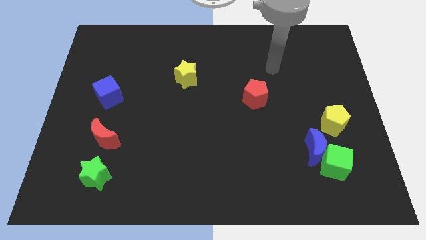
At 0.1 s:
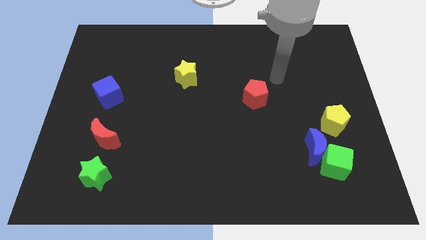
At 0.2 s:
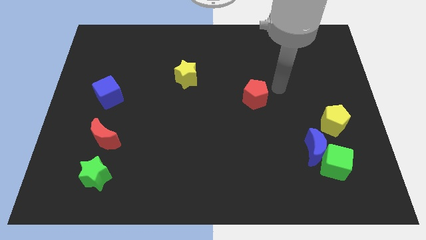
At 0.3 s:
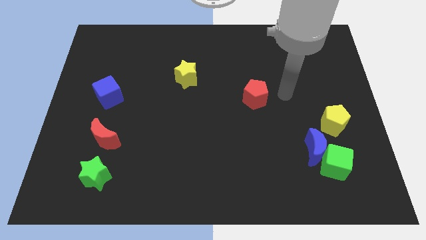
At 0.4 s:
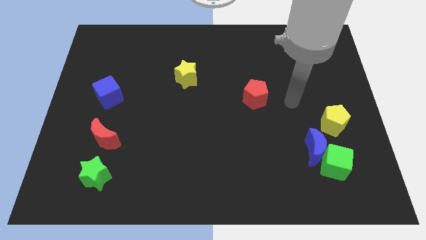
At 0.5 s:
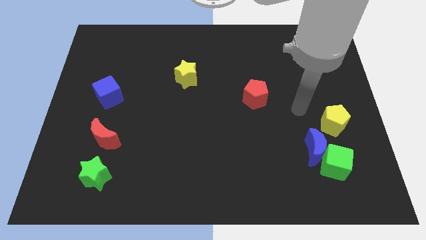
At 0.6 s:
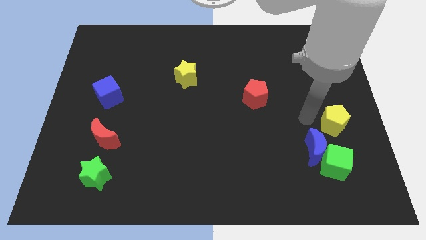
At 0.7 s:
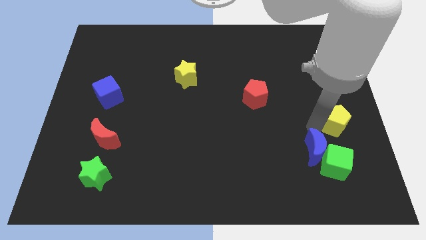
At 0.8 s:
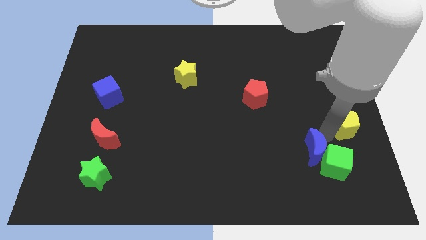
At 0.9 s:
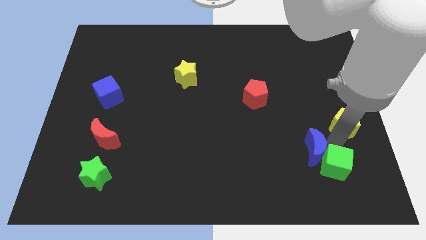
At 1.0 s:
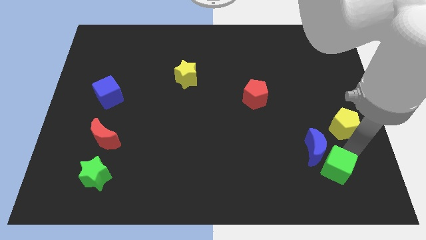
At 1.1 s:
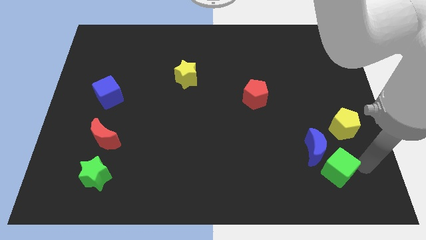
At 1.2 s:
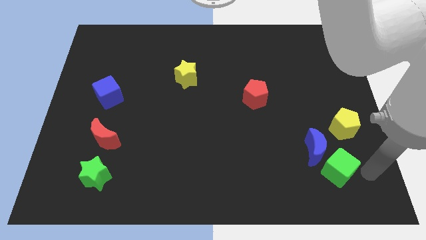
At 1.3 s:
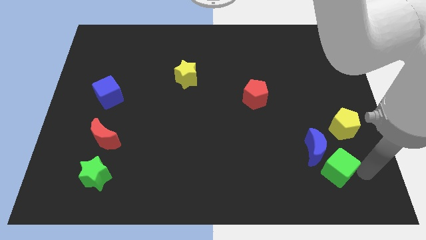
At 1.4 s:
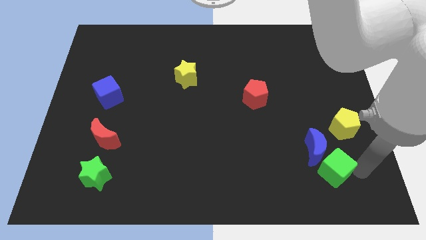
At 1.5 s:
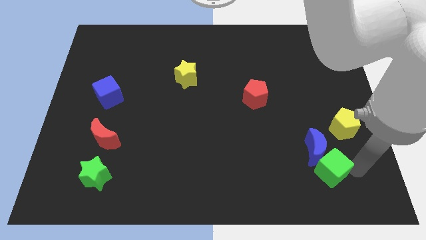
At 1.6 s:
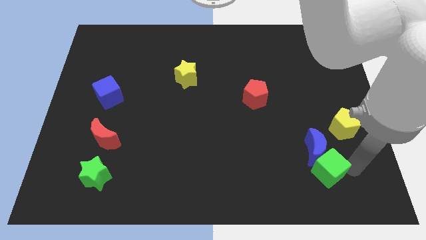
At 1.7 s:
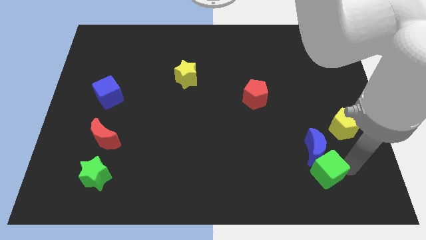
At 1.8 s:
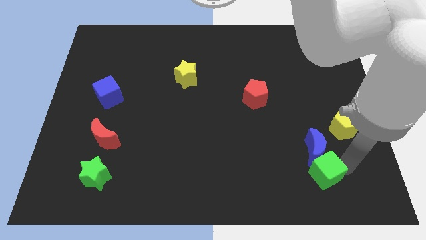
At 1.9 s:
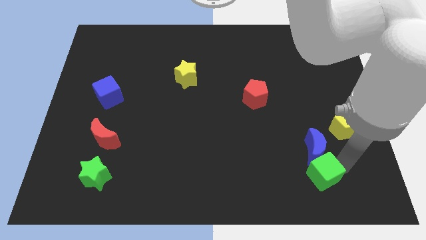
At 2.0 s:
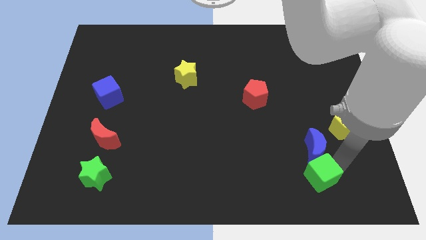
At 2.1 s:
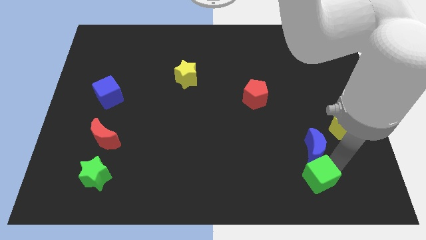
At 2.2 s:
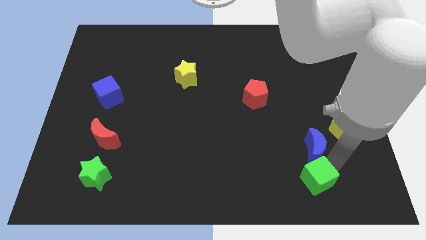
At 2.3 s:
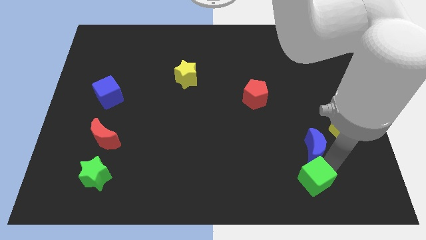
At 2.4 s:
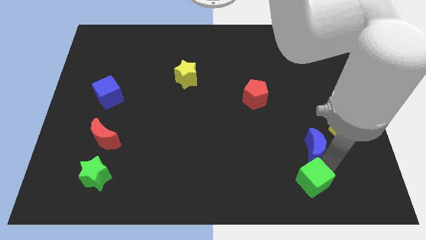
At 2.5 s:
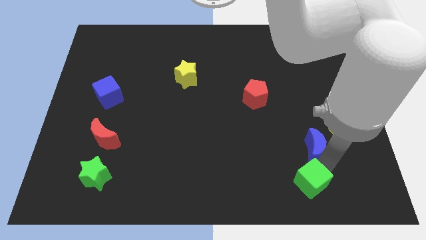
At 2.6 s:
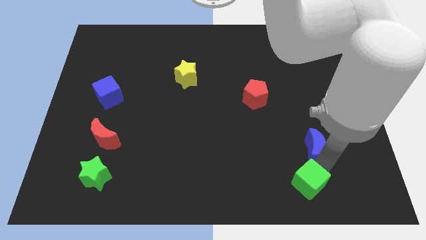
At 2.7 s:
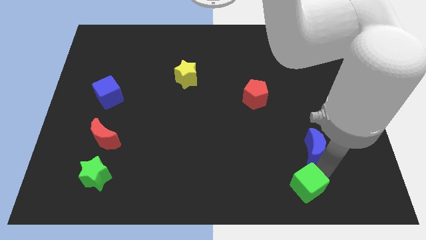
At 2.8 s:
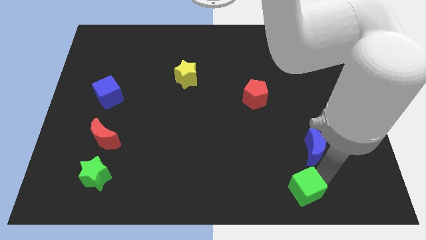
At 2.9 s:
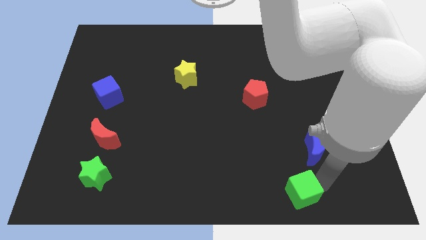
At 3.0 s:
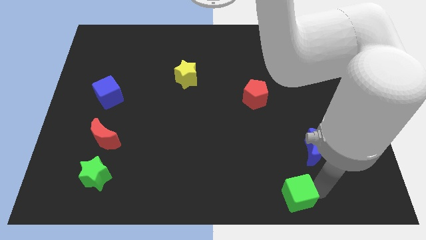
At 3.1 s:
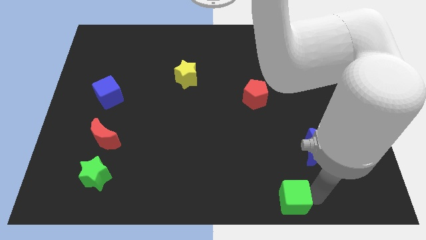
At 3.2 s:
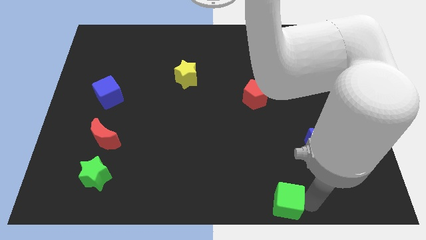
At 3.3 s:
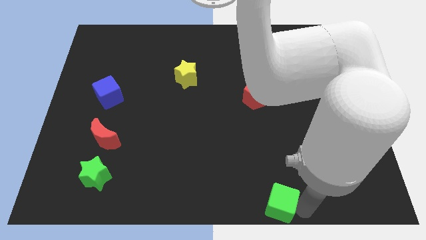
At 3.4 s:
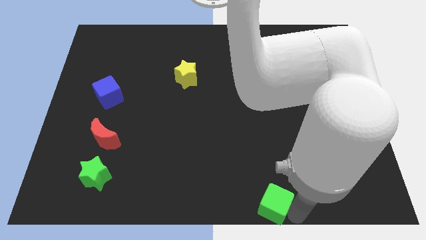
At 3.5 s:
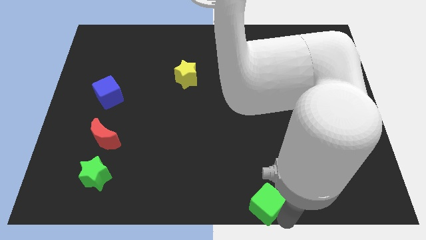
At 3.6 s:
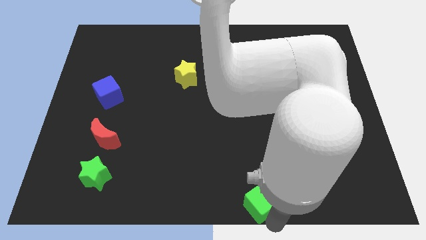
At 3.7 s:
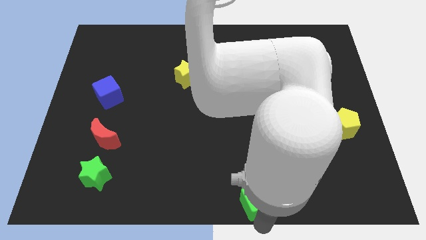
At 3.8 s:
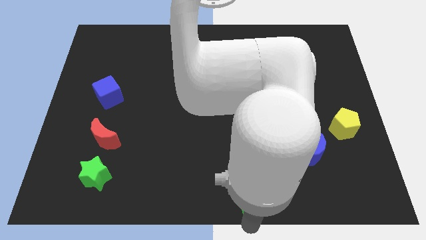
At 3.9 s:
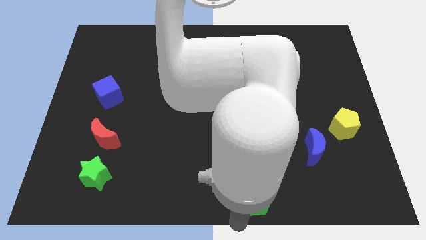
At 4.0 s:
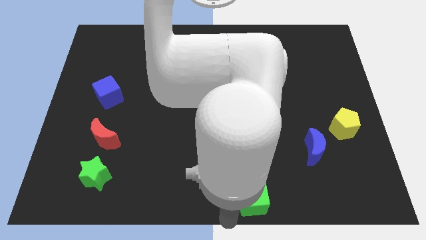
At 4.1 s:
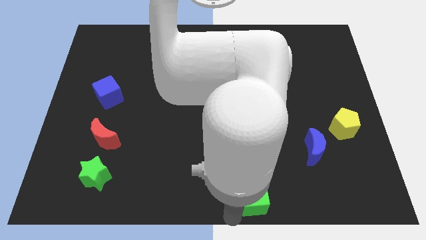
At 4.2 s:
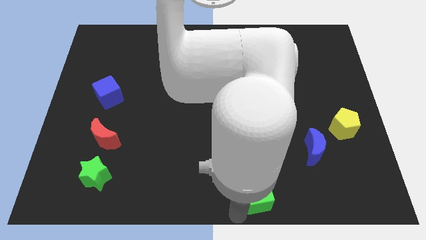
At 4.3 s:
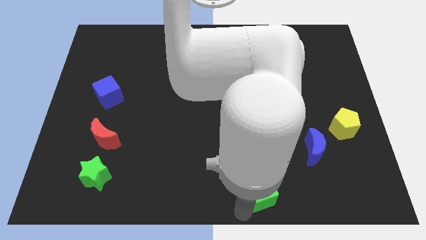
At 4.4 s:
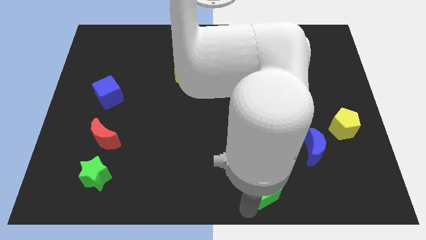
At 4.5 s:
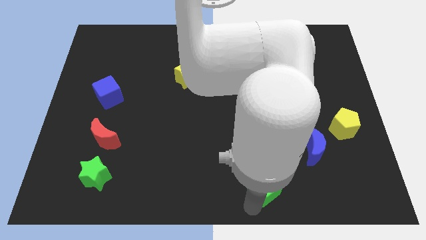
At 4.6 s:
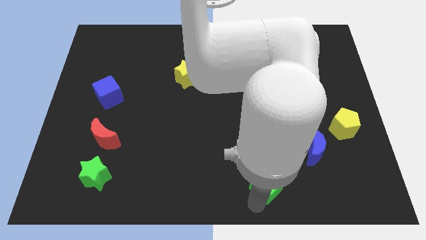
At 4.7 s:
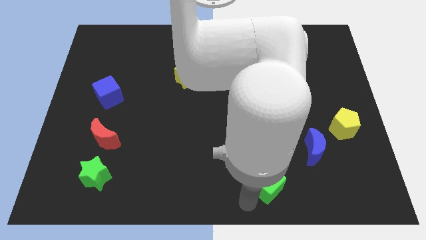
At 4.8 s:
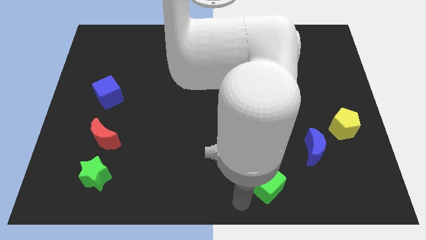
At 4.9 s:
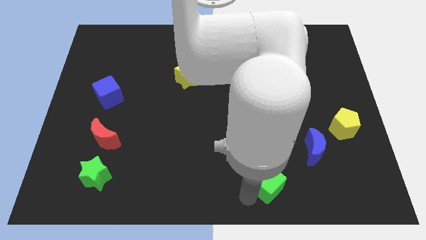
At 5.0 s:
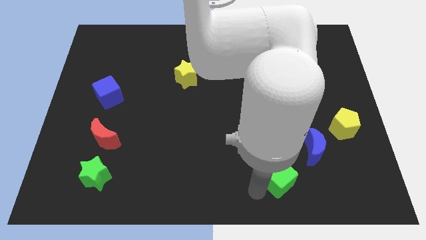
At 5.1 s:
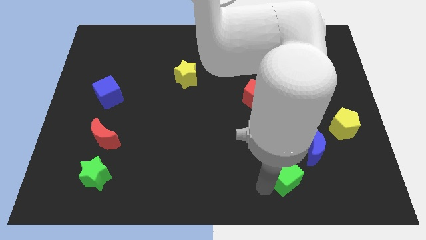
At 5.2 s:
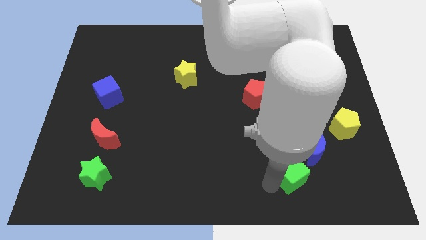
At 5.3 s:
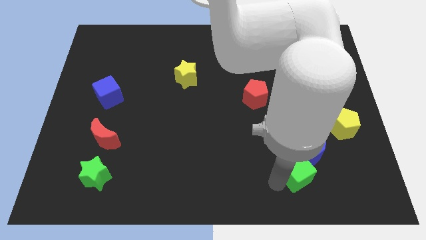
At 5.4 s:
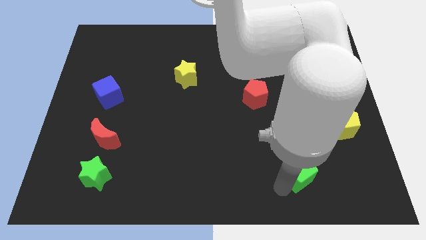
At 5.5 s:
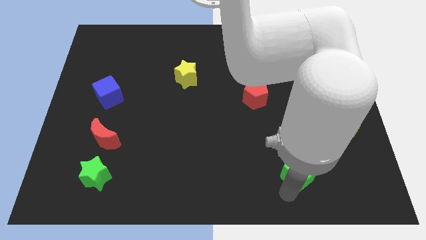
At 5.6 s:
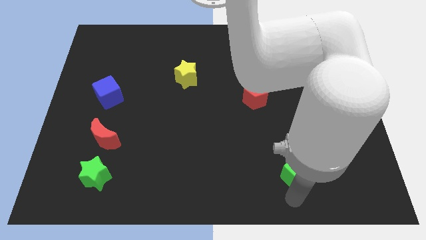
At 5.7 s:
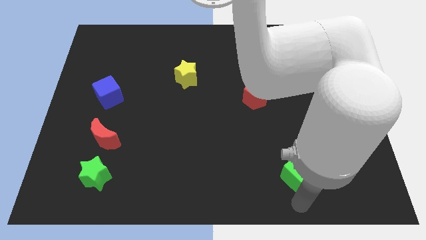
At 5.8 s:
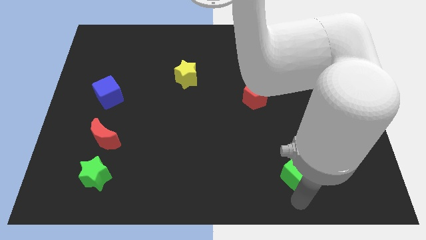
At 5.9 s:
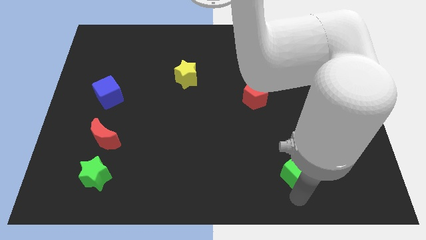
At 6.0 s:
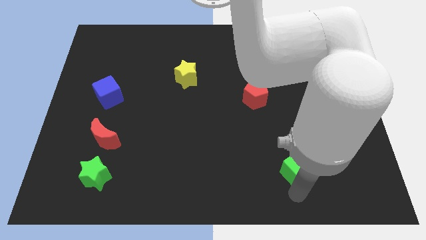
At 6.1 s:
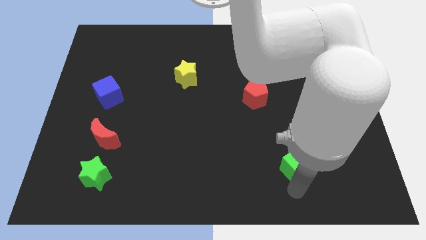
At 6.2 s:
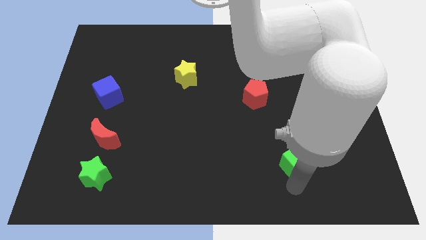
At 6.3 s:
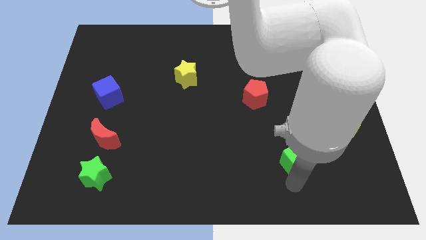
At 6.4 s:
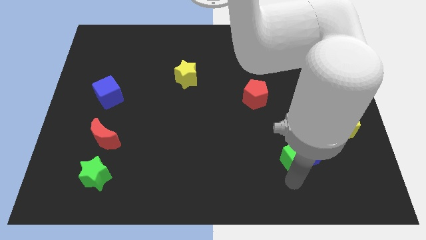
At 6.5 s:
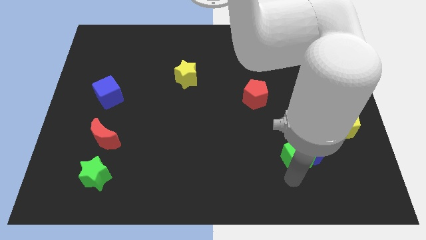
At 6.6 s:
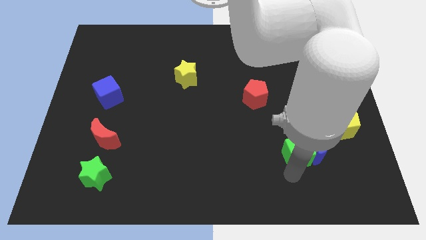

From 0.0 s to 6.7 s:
slightly push the green cube up and to the left diagonally

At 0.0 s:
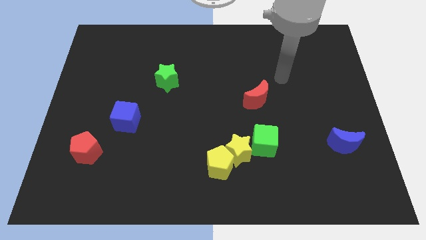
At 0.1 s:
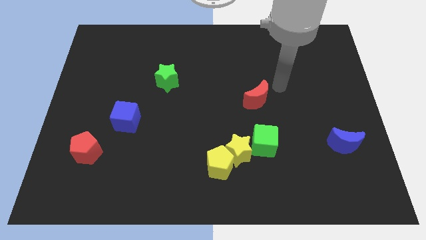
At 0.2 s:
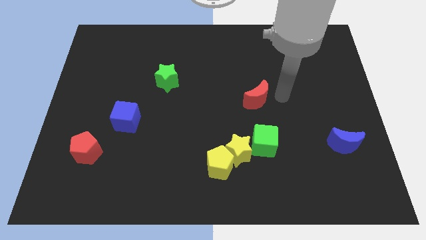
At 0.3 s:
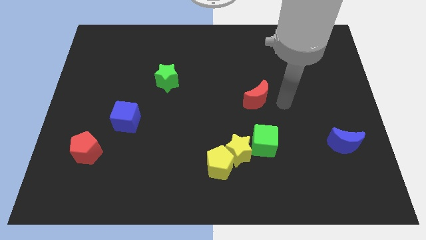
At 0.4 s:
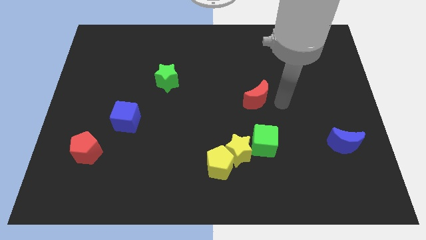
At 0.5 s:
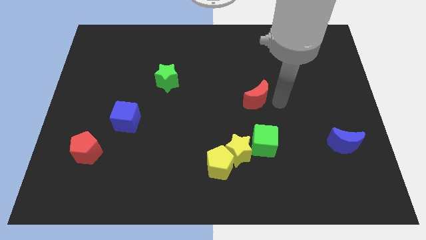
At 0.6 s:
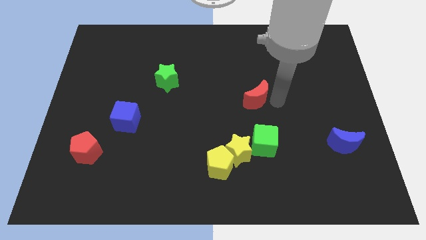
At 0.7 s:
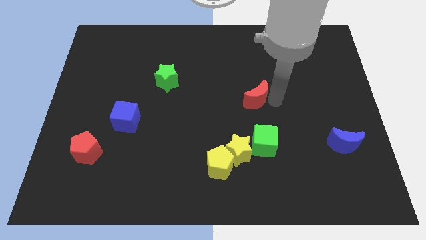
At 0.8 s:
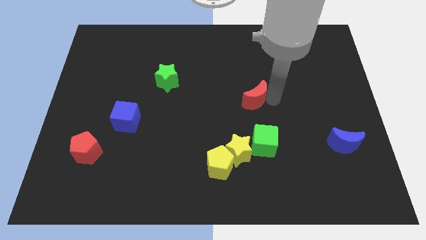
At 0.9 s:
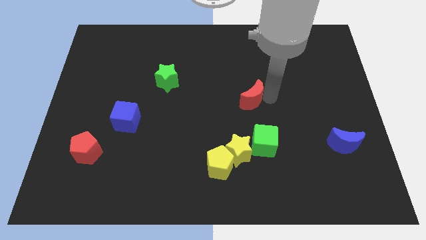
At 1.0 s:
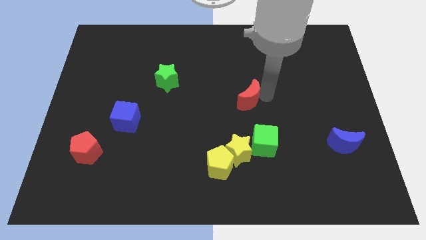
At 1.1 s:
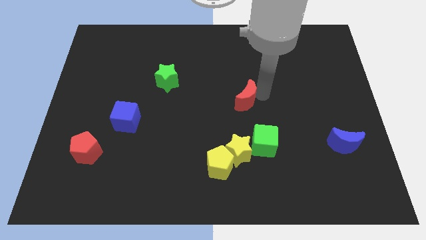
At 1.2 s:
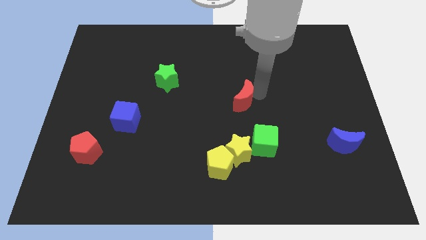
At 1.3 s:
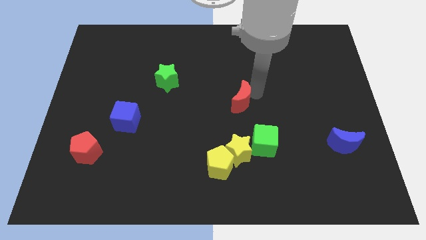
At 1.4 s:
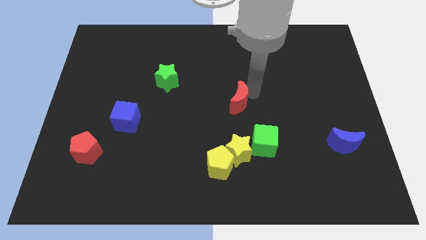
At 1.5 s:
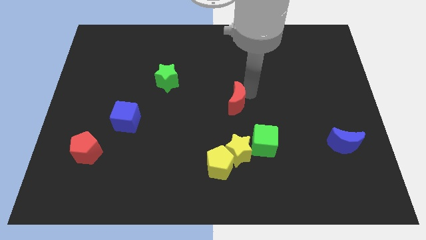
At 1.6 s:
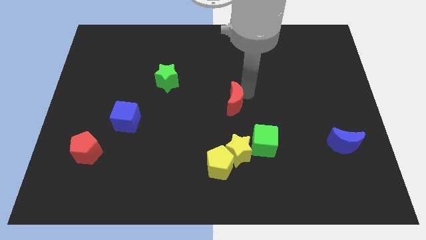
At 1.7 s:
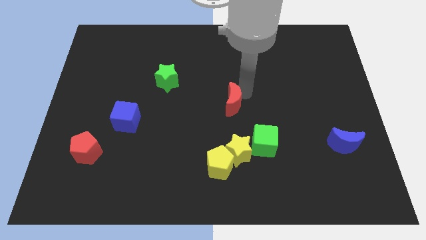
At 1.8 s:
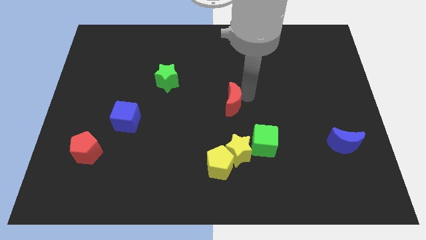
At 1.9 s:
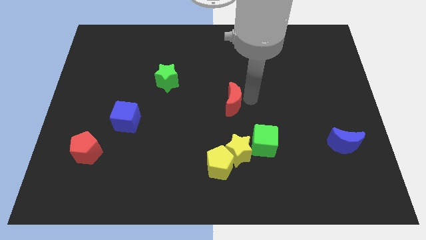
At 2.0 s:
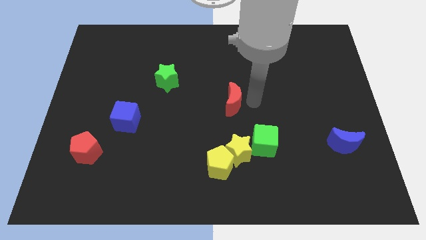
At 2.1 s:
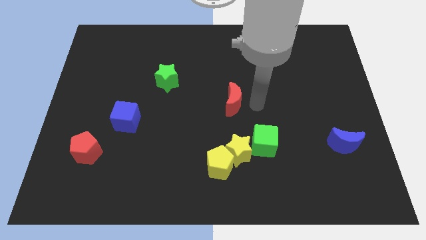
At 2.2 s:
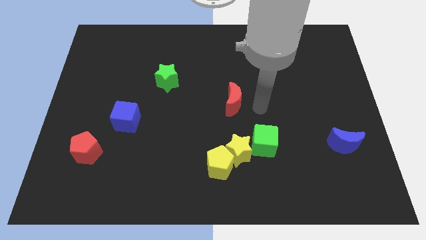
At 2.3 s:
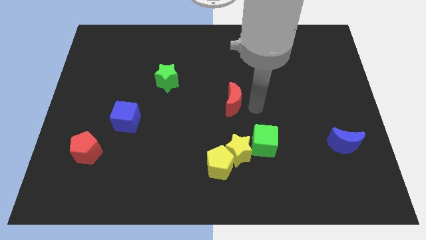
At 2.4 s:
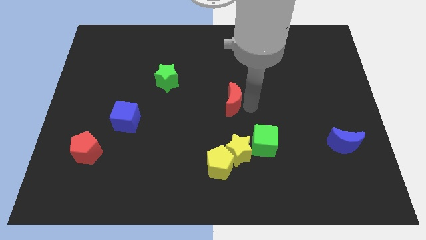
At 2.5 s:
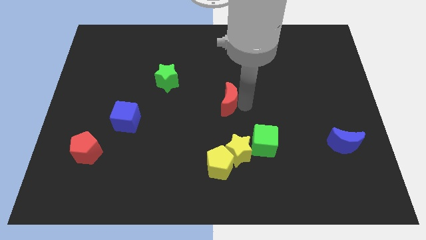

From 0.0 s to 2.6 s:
move the red moon to the left somewhat
